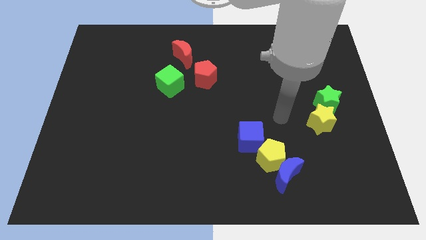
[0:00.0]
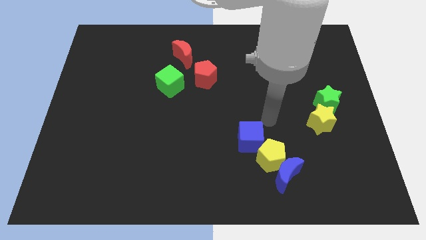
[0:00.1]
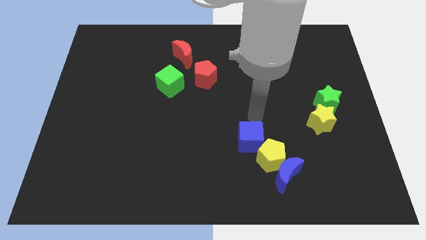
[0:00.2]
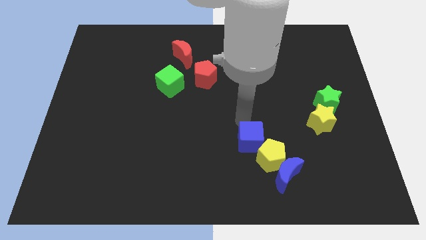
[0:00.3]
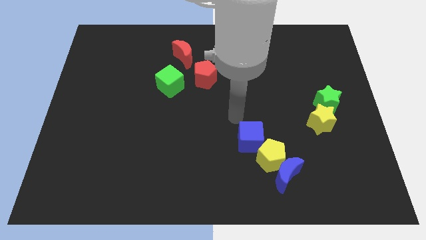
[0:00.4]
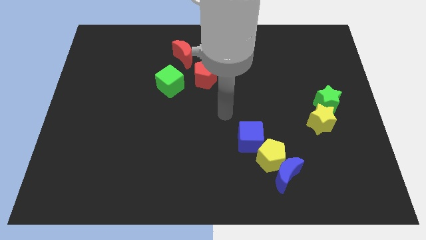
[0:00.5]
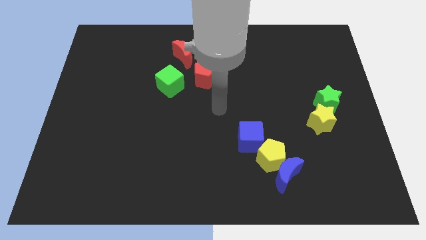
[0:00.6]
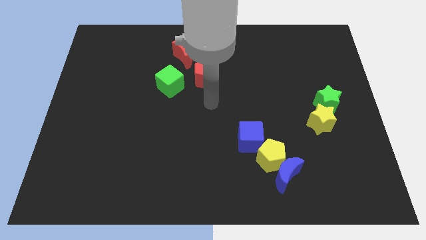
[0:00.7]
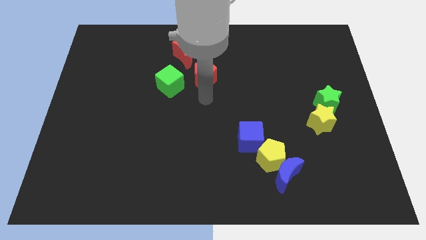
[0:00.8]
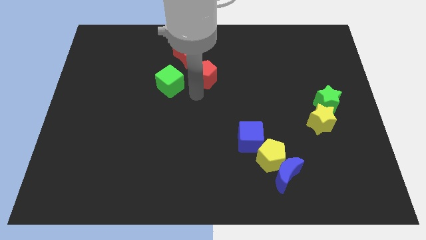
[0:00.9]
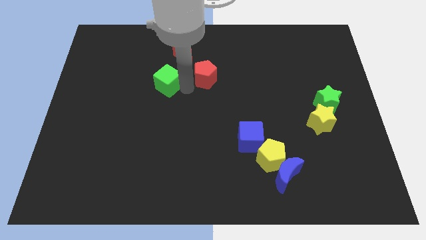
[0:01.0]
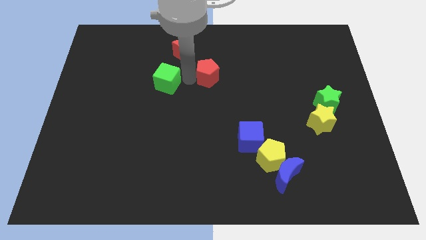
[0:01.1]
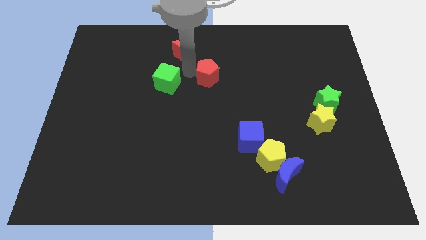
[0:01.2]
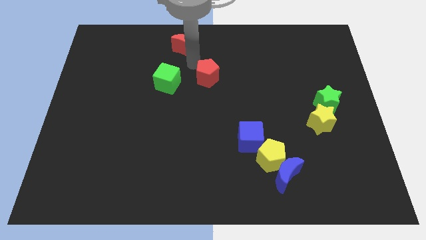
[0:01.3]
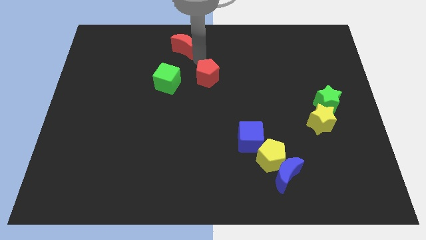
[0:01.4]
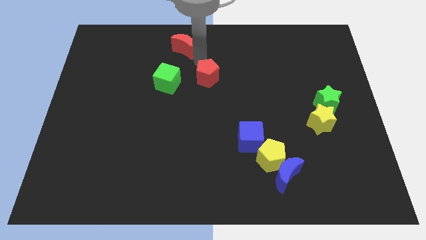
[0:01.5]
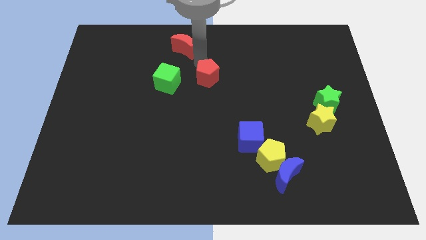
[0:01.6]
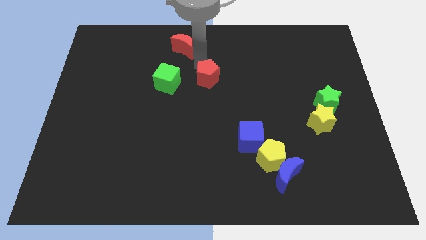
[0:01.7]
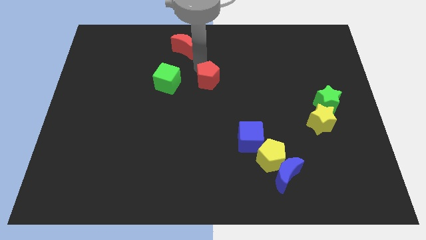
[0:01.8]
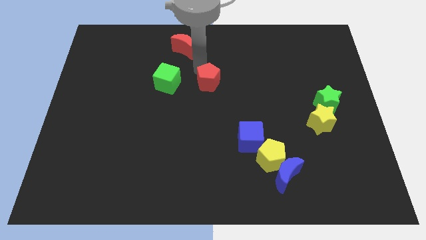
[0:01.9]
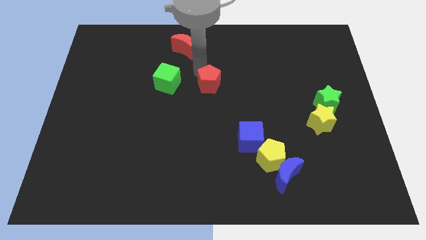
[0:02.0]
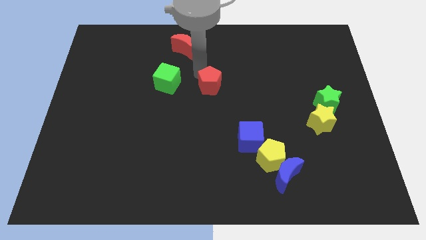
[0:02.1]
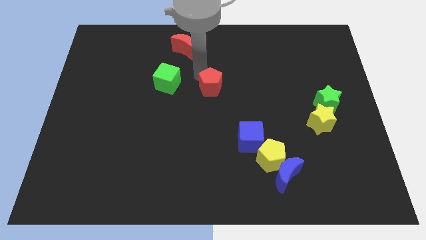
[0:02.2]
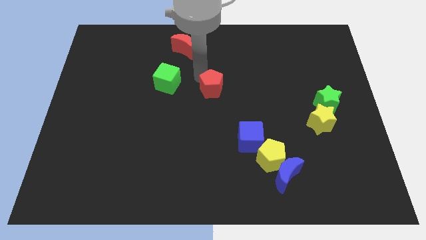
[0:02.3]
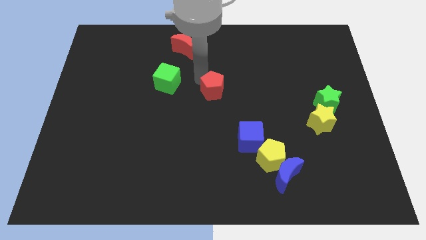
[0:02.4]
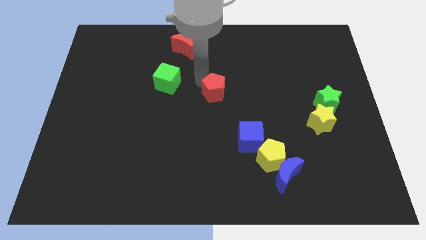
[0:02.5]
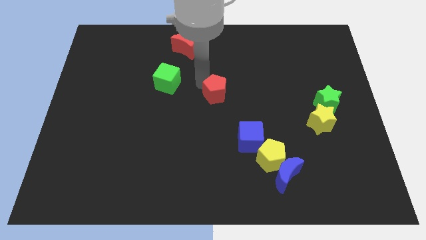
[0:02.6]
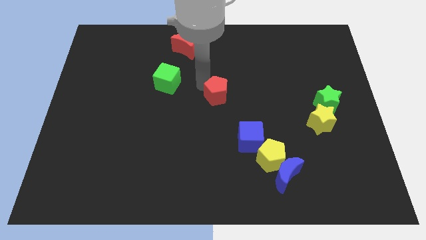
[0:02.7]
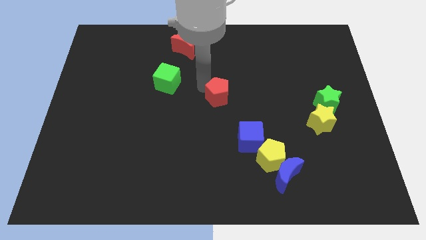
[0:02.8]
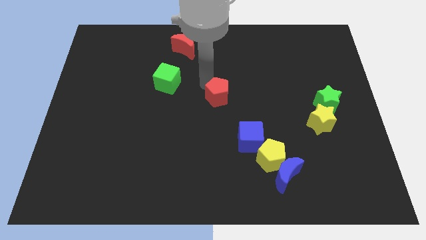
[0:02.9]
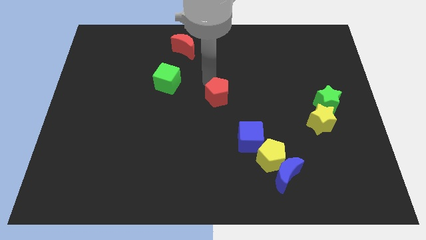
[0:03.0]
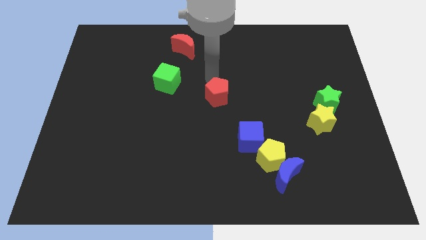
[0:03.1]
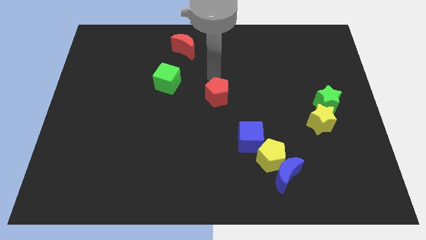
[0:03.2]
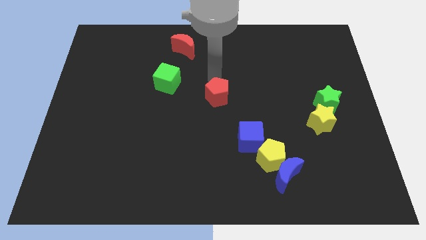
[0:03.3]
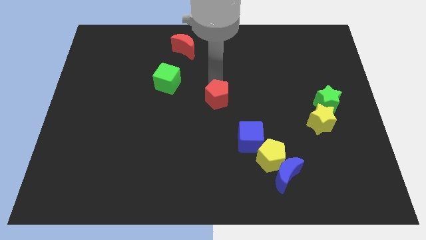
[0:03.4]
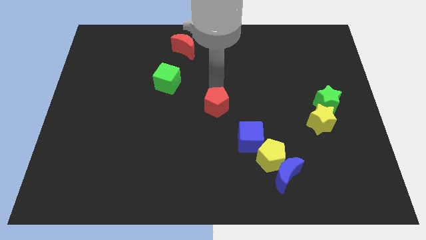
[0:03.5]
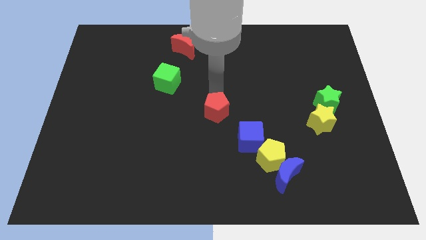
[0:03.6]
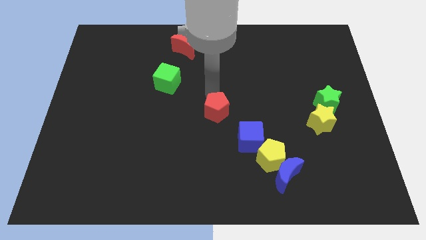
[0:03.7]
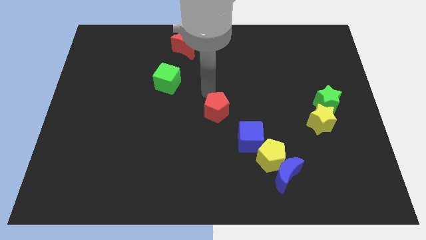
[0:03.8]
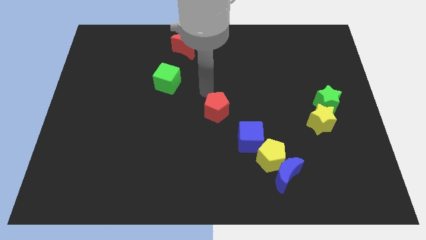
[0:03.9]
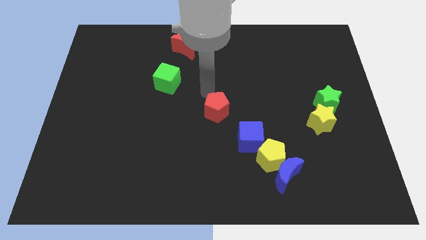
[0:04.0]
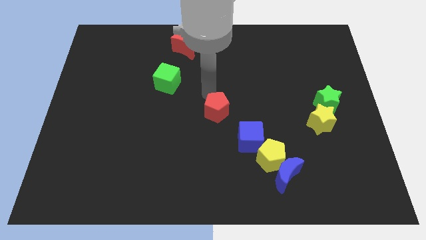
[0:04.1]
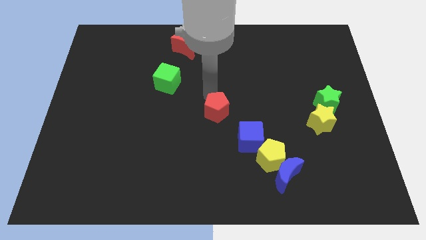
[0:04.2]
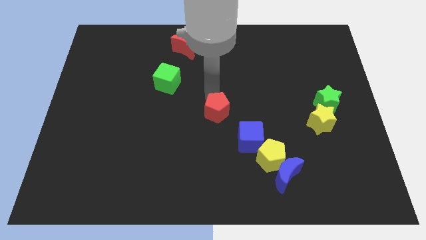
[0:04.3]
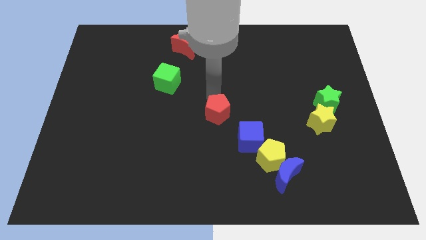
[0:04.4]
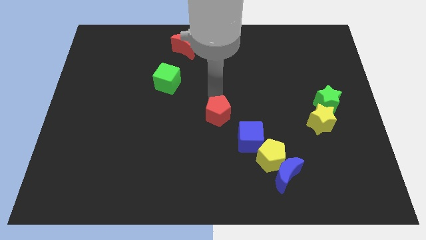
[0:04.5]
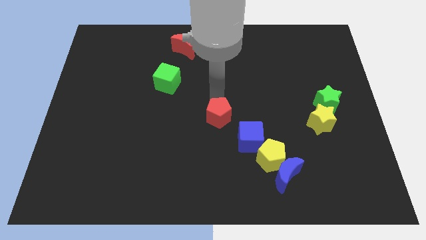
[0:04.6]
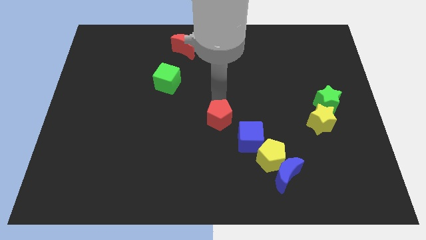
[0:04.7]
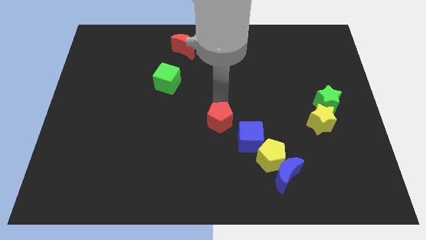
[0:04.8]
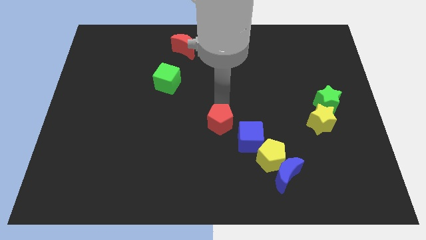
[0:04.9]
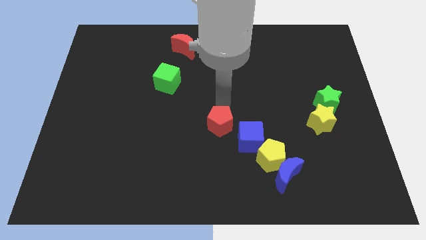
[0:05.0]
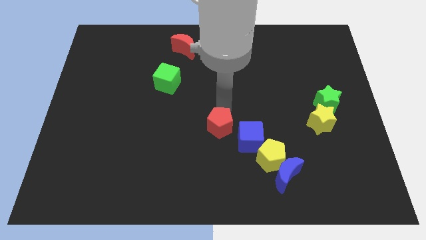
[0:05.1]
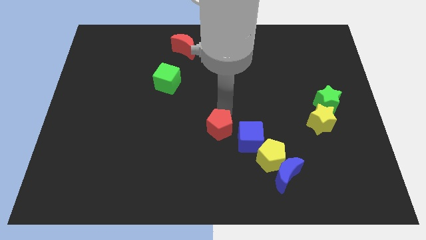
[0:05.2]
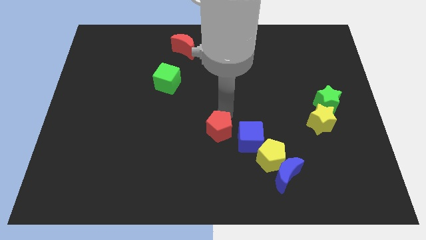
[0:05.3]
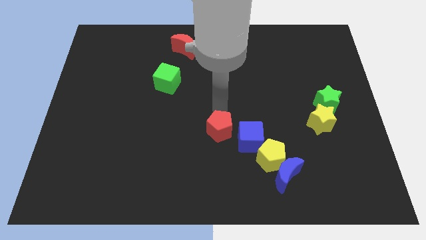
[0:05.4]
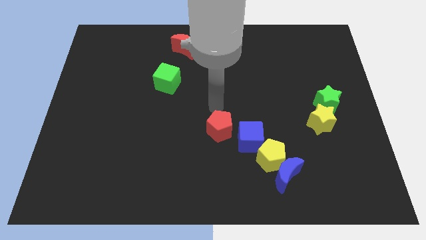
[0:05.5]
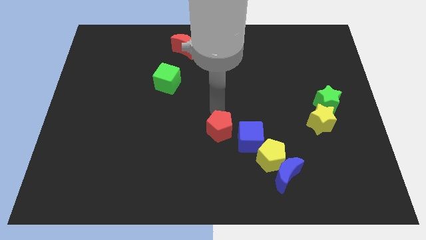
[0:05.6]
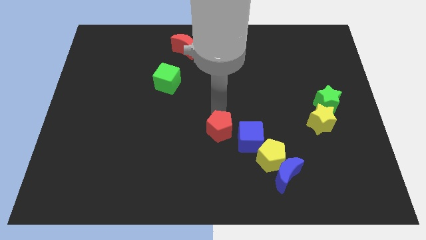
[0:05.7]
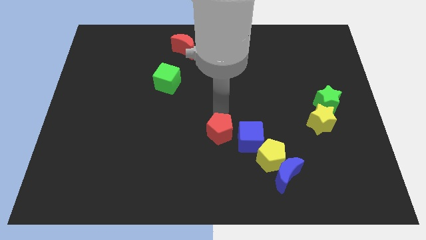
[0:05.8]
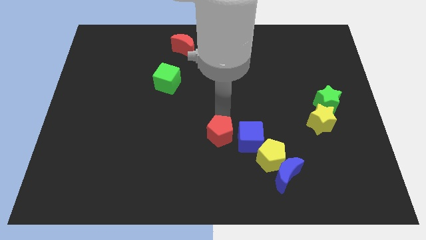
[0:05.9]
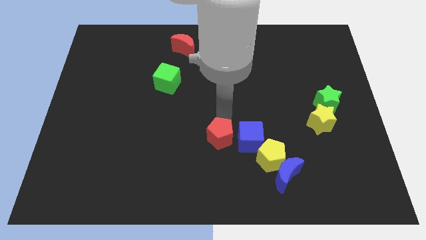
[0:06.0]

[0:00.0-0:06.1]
push the red pentagon to the bottom left side of the blue cube

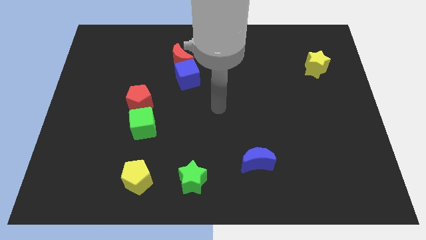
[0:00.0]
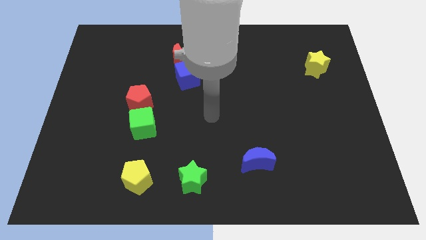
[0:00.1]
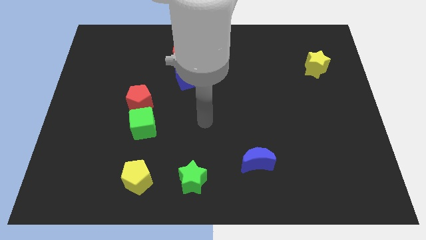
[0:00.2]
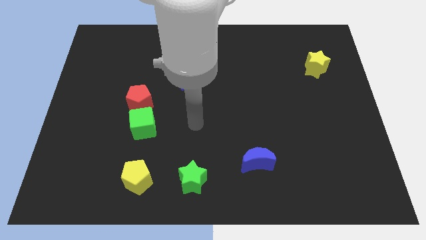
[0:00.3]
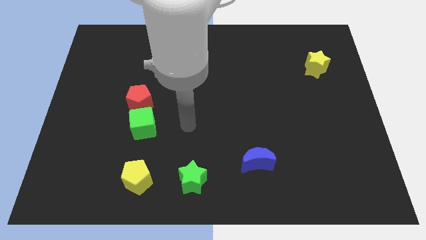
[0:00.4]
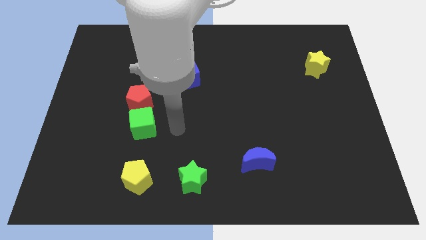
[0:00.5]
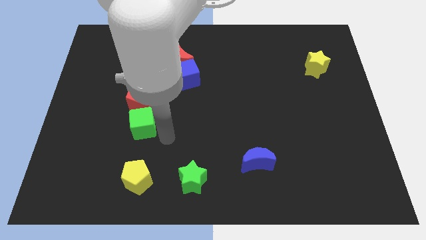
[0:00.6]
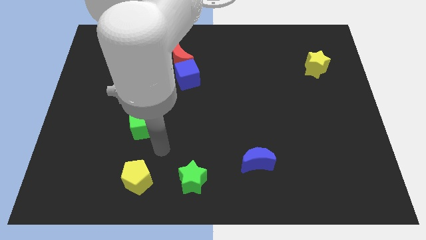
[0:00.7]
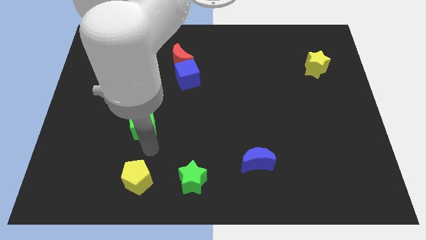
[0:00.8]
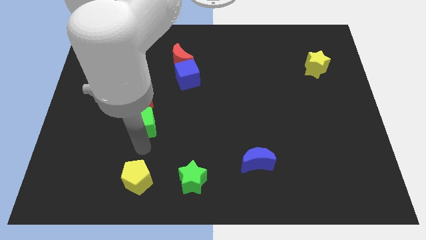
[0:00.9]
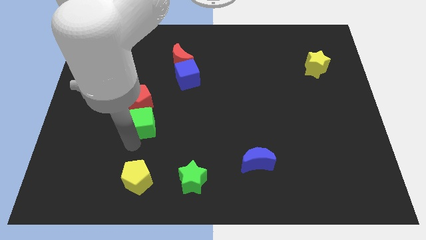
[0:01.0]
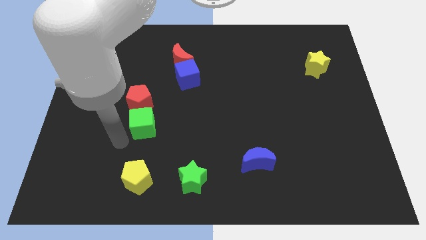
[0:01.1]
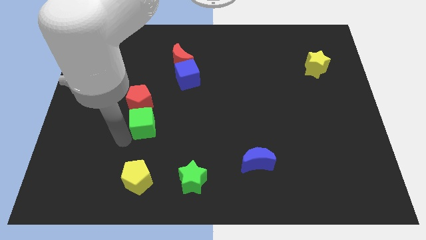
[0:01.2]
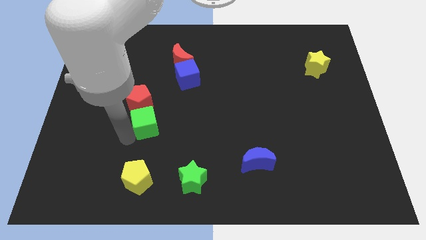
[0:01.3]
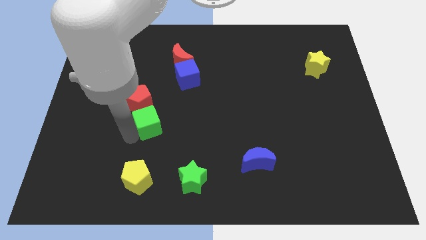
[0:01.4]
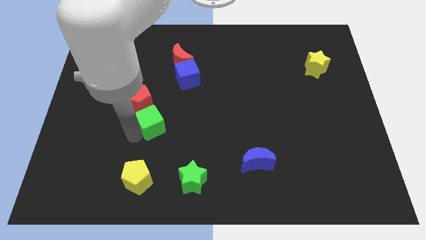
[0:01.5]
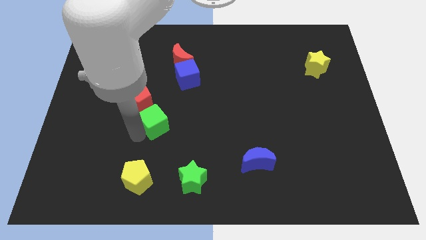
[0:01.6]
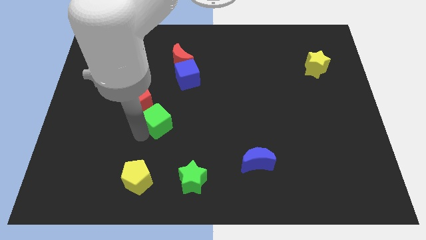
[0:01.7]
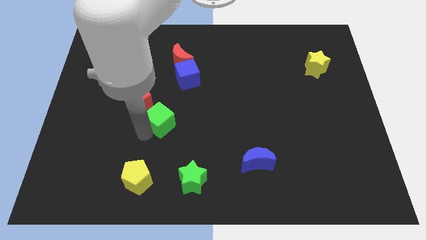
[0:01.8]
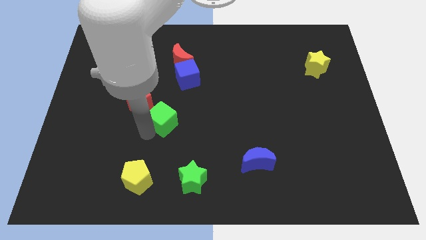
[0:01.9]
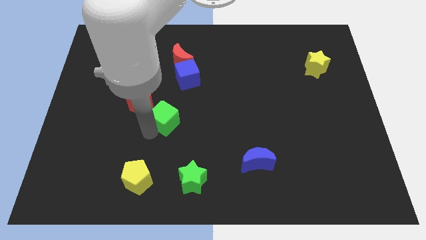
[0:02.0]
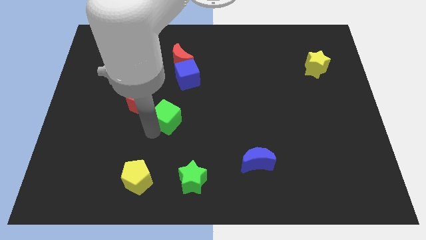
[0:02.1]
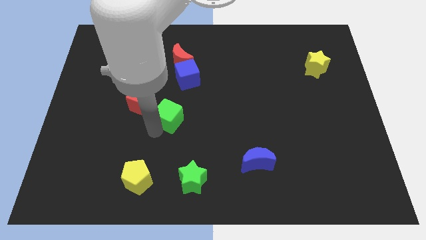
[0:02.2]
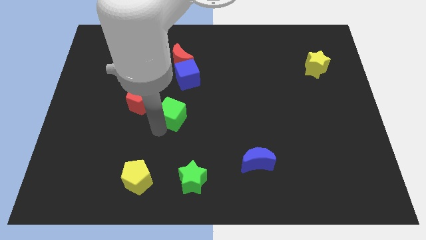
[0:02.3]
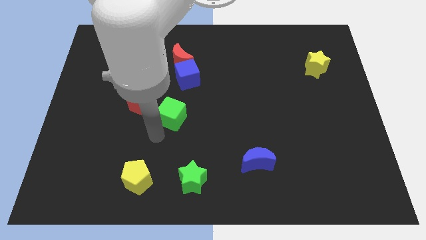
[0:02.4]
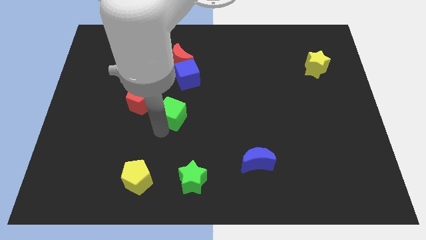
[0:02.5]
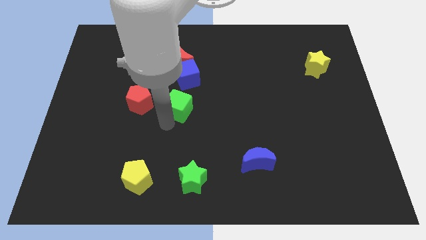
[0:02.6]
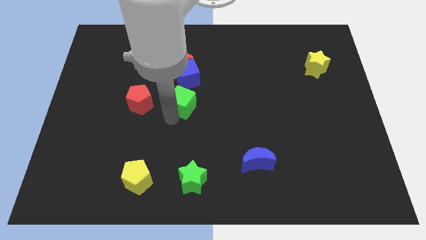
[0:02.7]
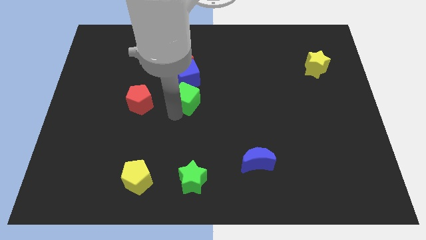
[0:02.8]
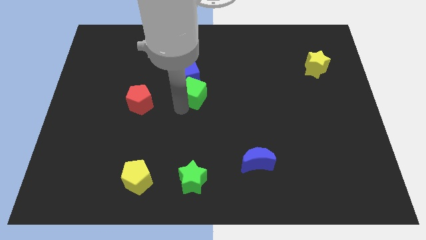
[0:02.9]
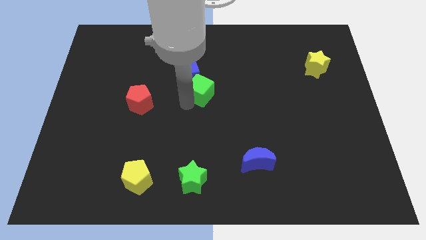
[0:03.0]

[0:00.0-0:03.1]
slide the green cube to the bottom right side of the red moon
